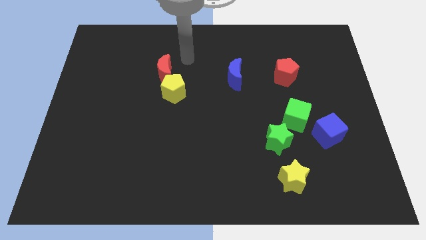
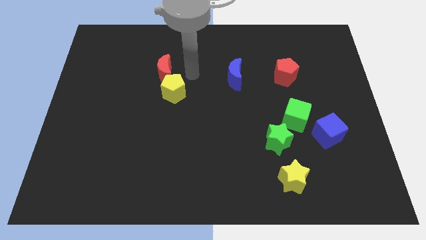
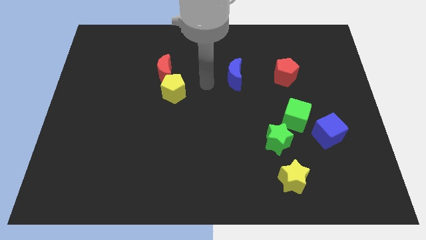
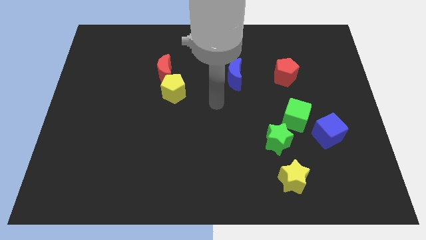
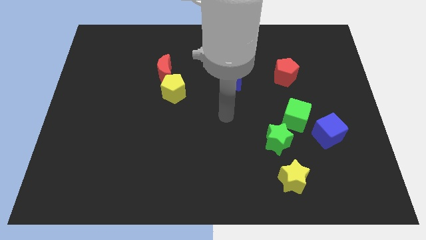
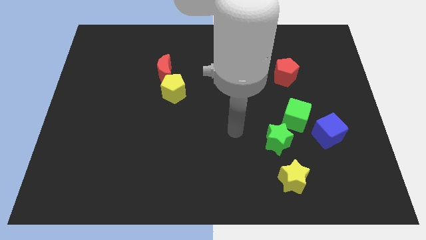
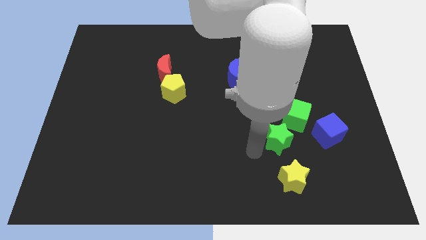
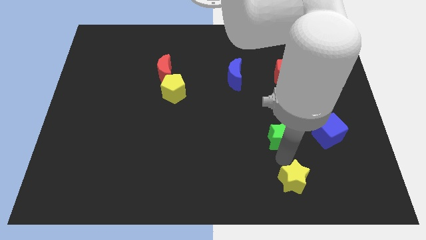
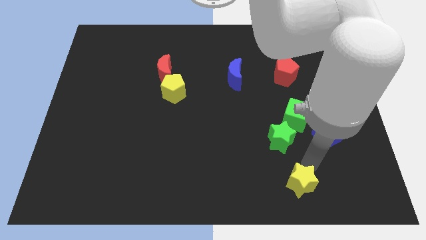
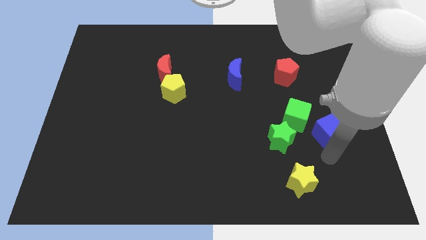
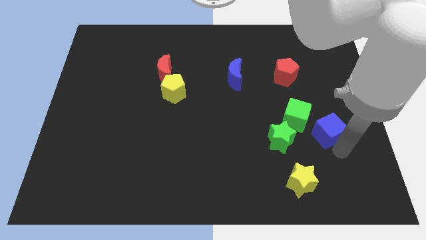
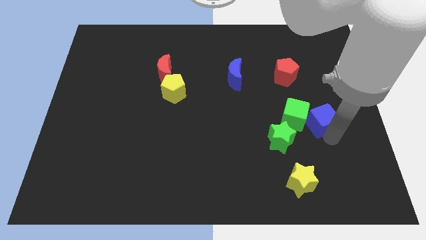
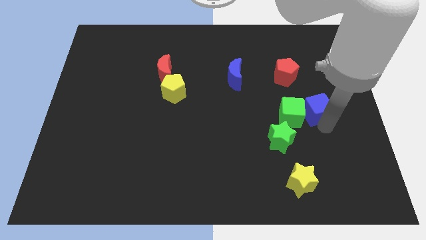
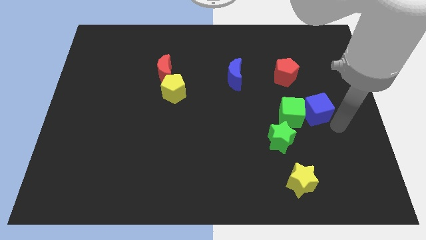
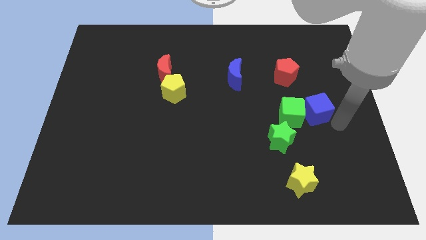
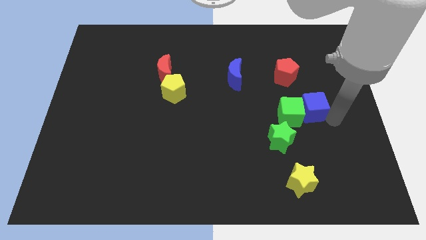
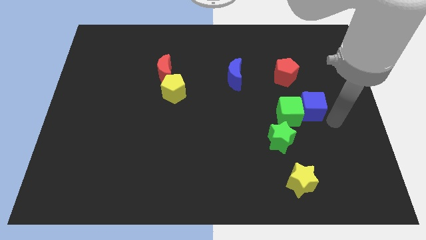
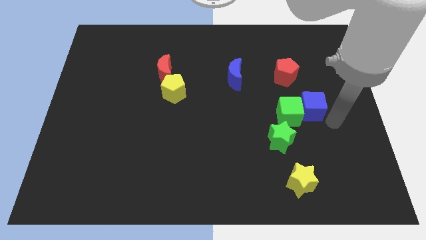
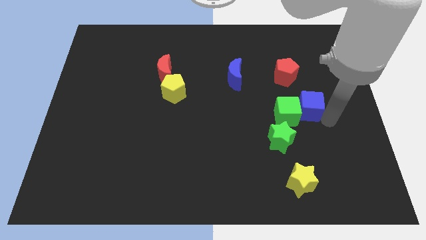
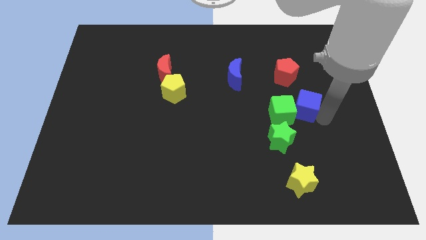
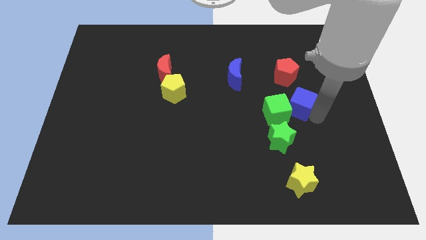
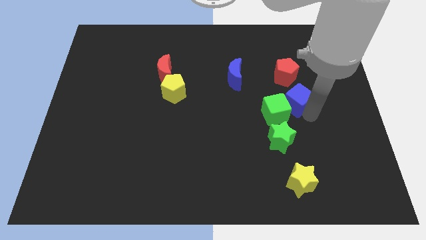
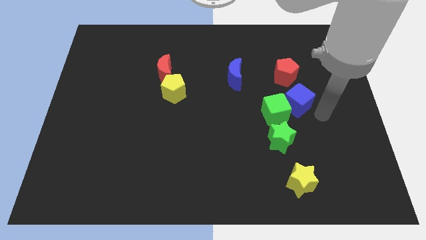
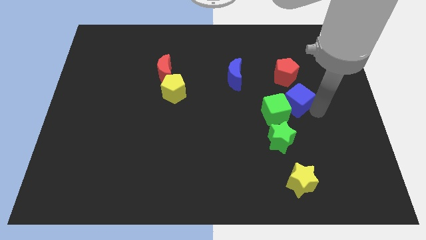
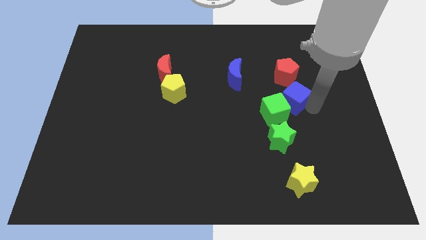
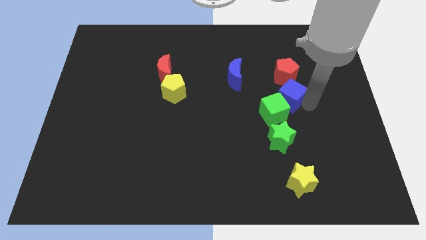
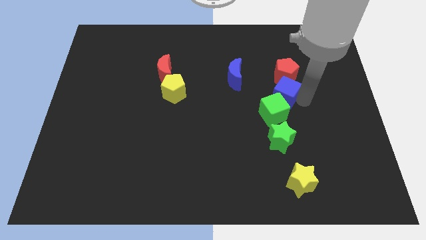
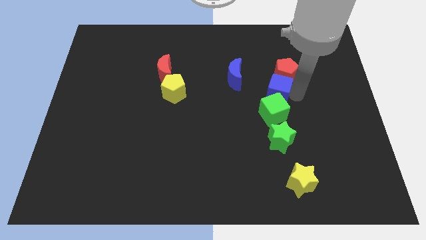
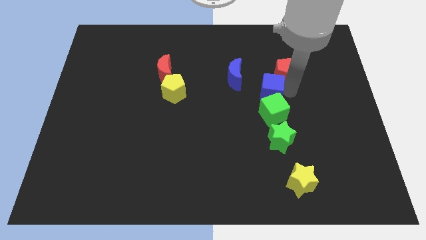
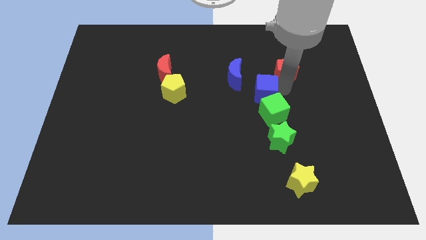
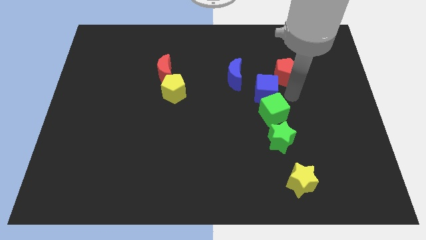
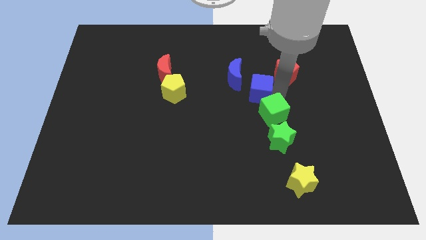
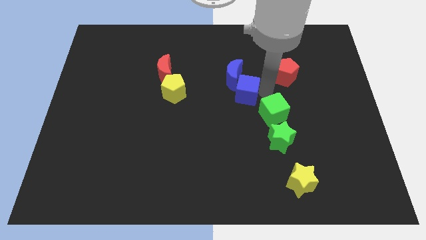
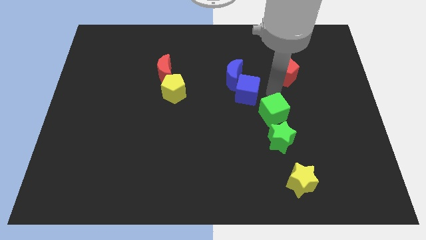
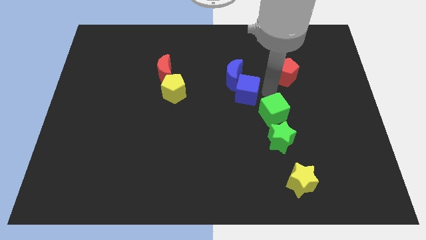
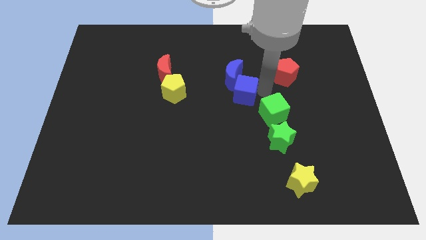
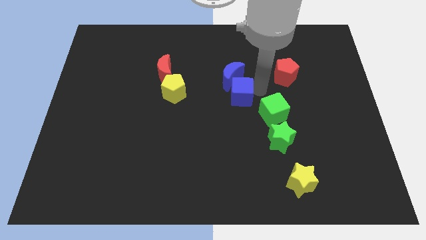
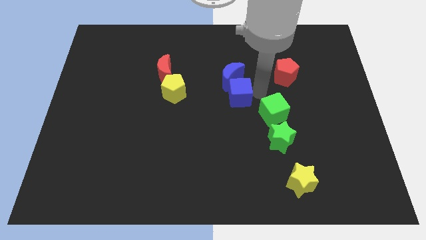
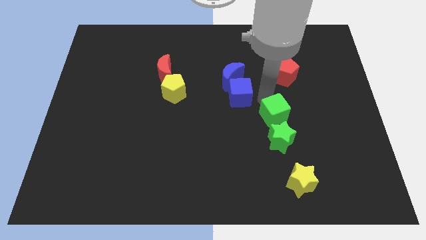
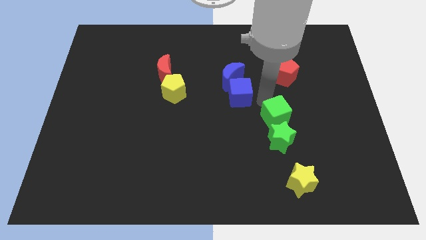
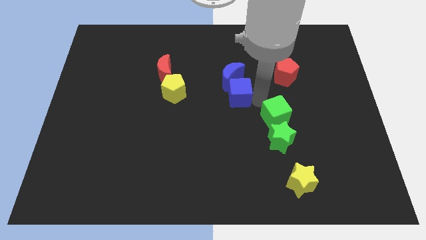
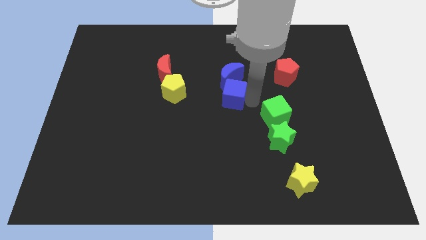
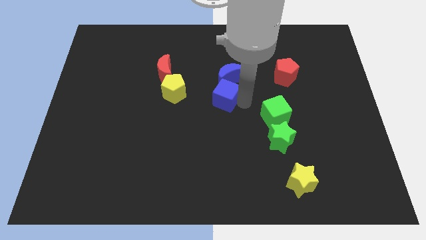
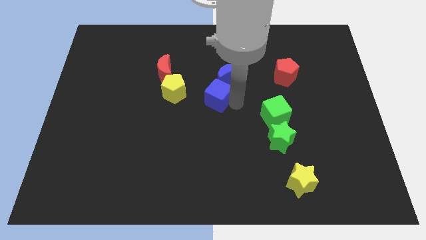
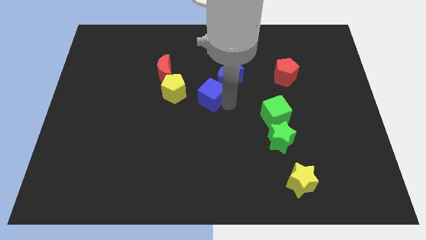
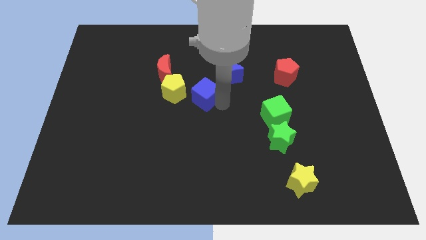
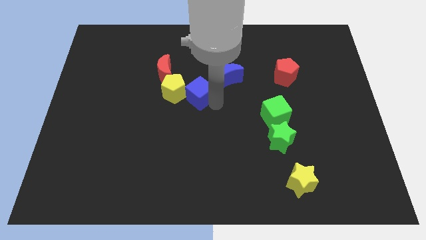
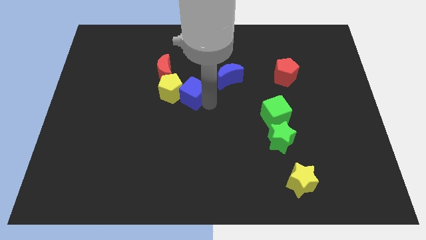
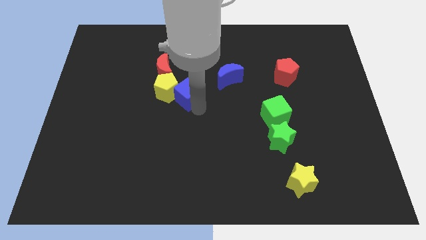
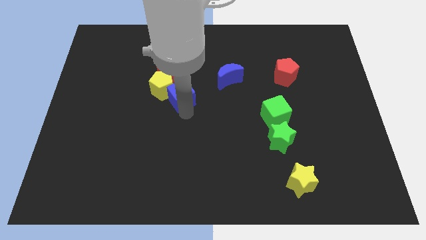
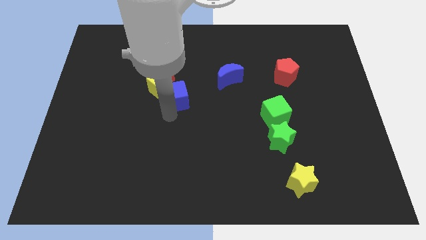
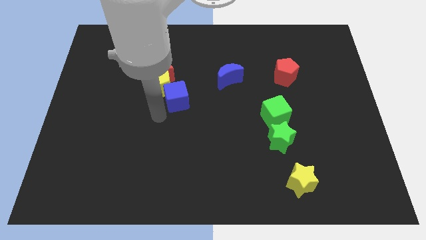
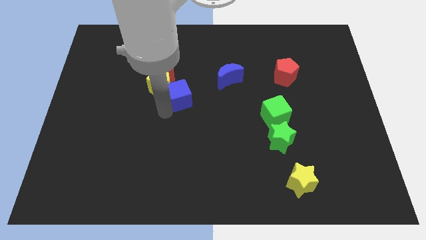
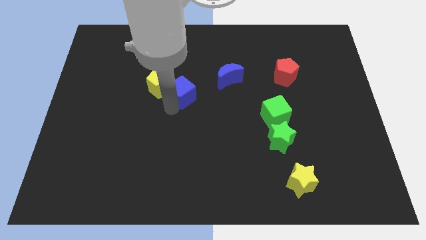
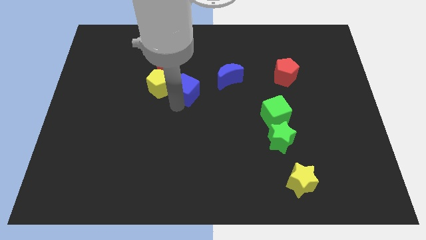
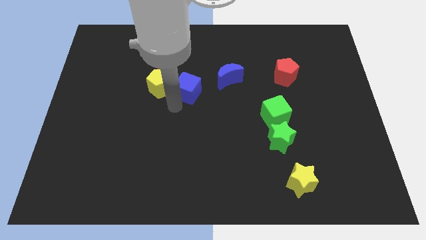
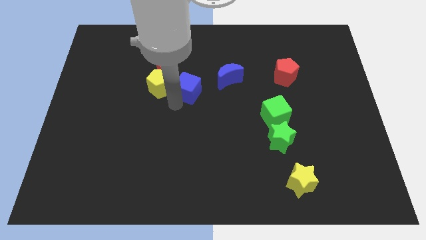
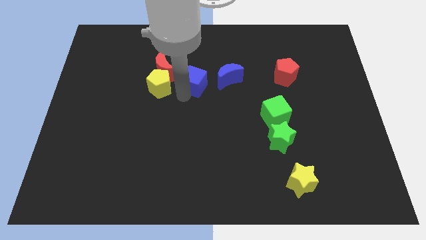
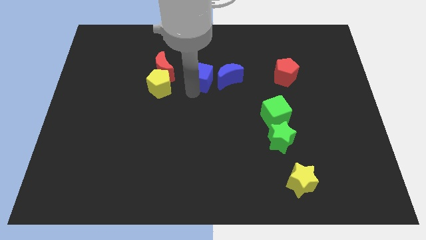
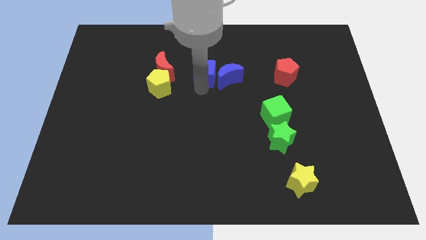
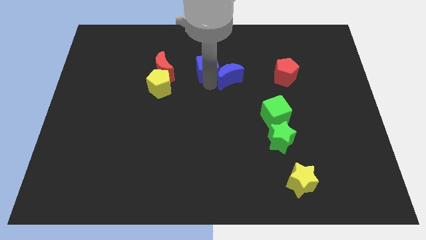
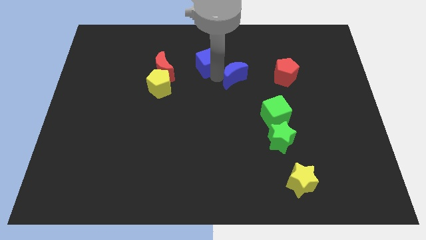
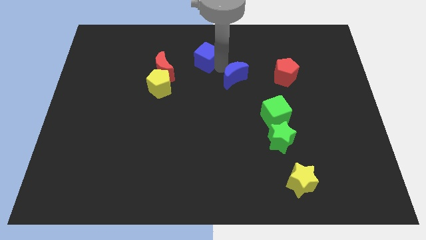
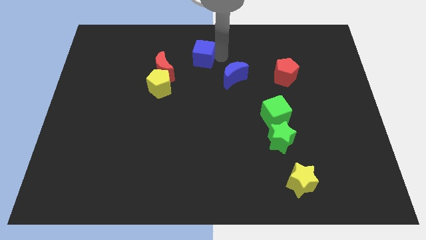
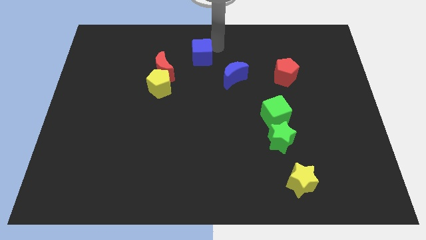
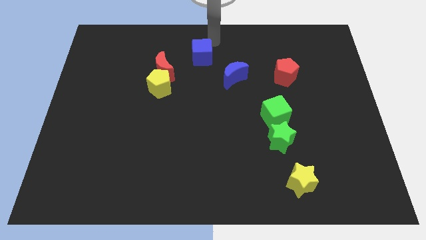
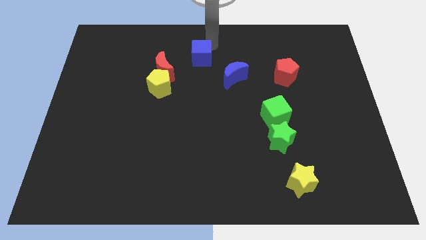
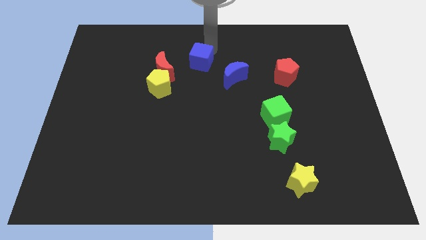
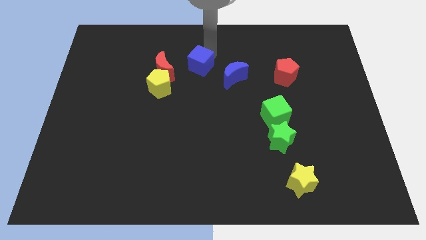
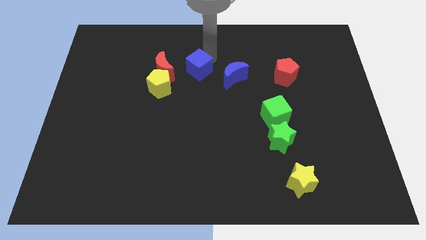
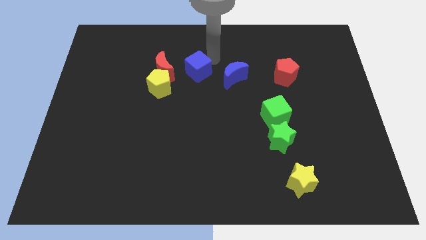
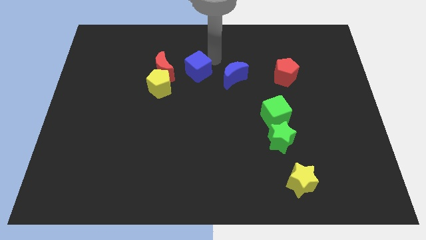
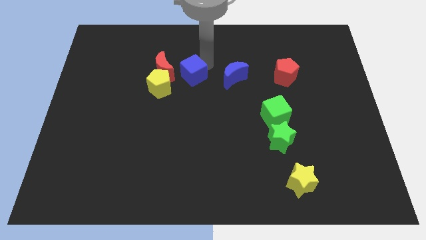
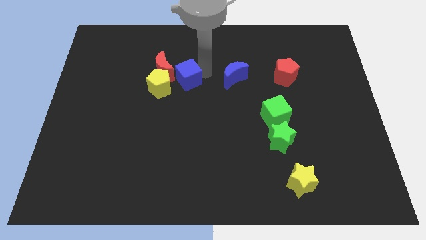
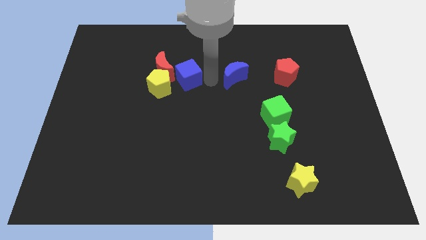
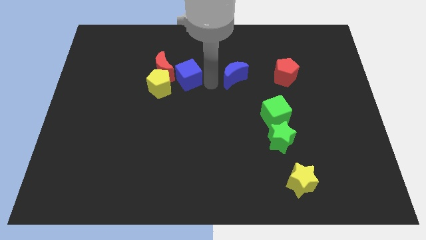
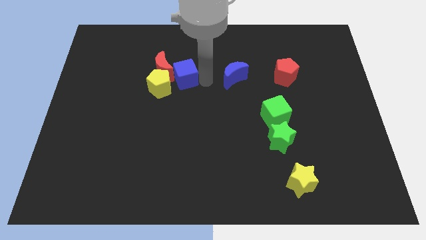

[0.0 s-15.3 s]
slide the blue cube to the red moon
